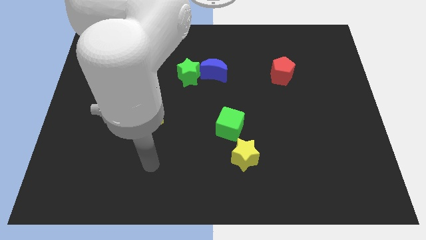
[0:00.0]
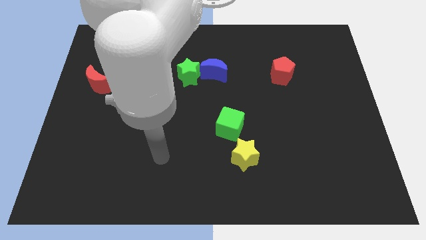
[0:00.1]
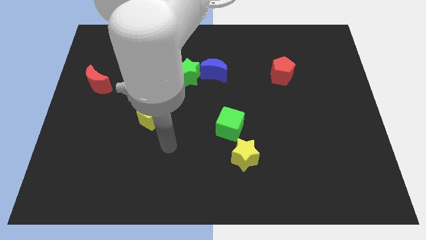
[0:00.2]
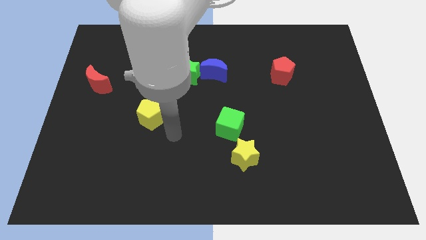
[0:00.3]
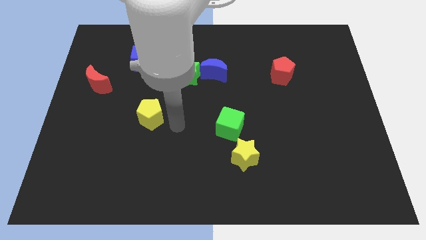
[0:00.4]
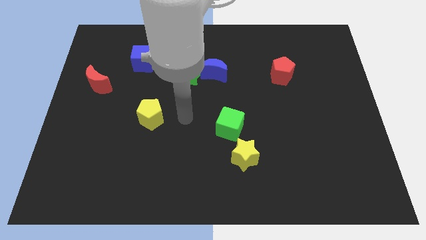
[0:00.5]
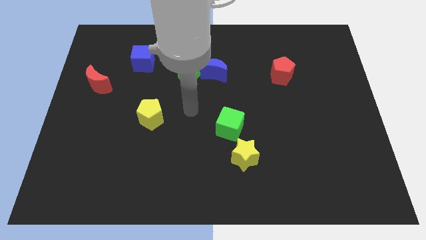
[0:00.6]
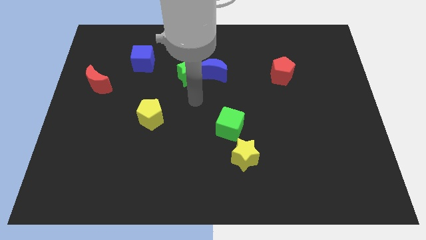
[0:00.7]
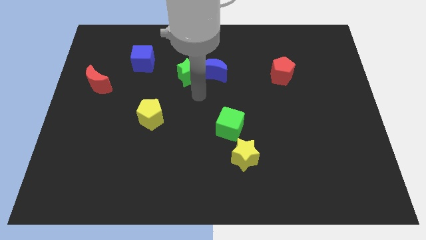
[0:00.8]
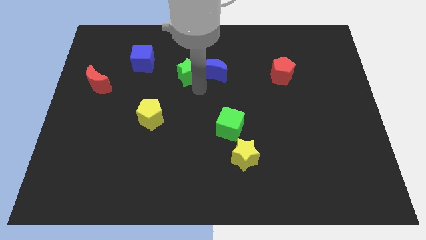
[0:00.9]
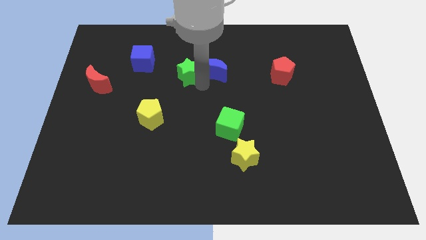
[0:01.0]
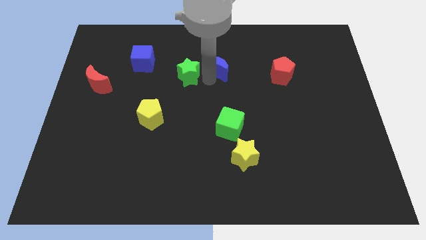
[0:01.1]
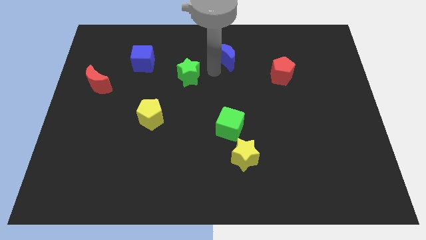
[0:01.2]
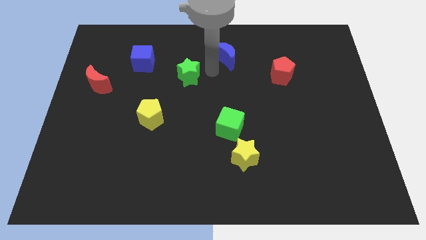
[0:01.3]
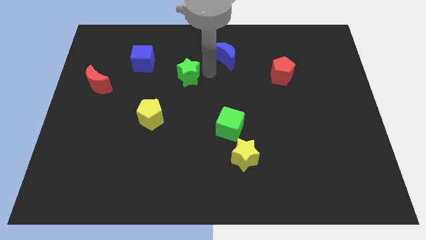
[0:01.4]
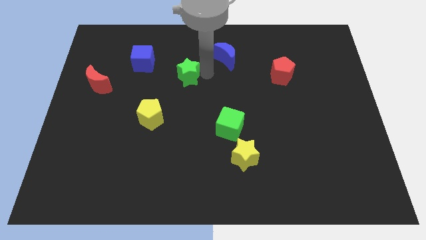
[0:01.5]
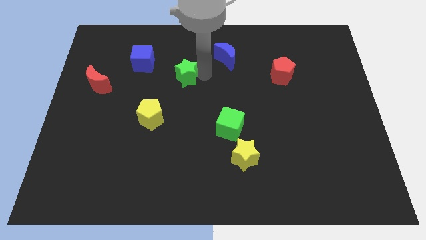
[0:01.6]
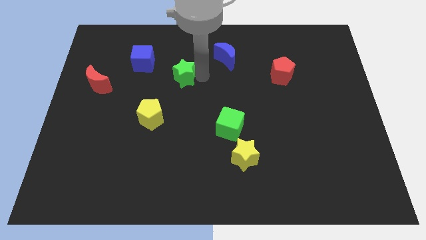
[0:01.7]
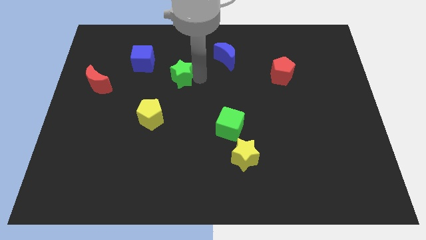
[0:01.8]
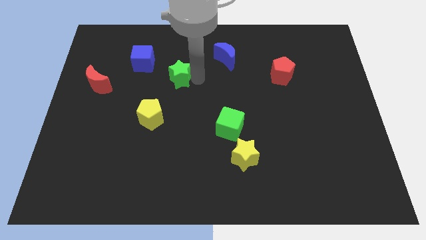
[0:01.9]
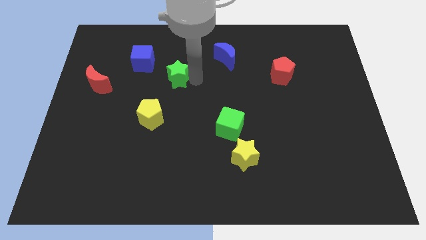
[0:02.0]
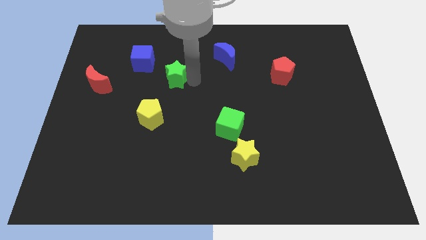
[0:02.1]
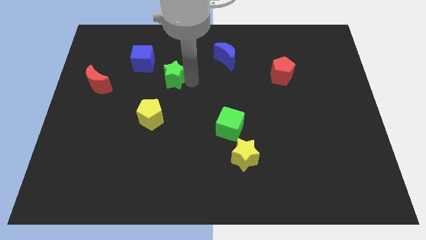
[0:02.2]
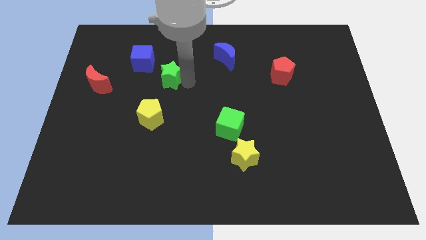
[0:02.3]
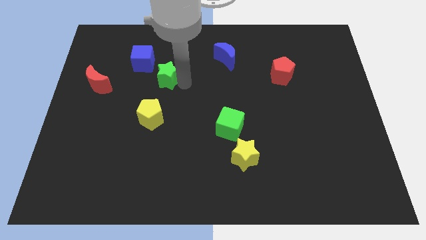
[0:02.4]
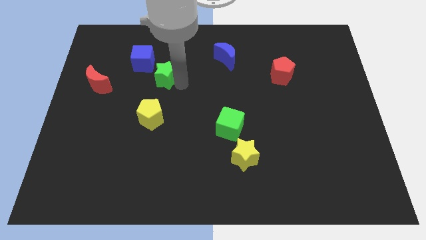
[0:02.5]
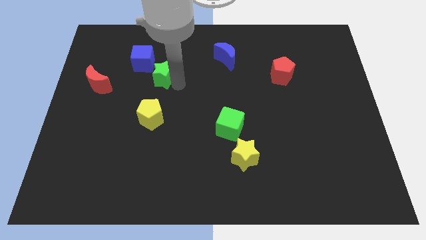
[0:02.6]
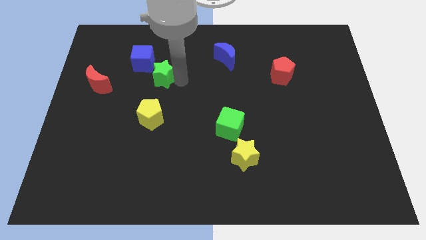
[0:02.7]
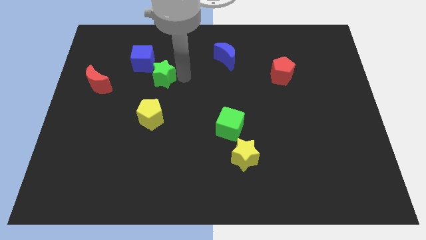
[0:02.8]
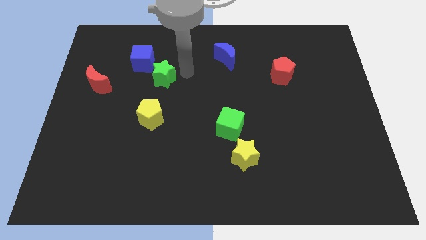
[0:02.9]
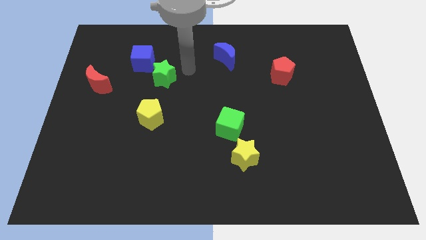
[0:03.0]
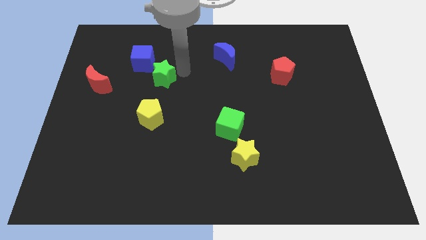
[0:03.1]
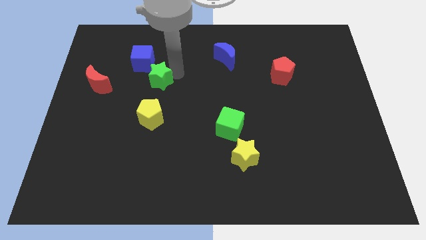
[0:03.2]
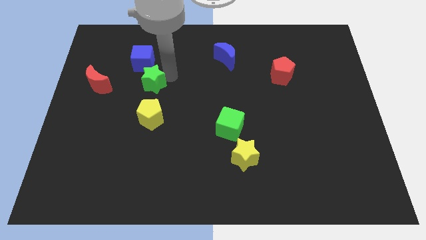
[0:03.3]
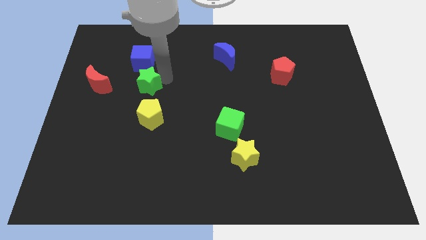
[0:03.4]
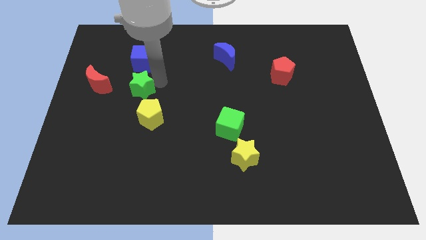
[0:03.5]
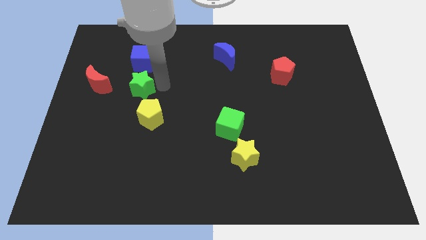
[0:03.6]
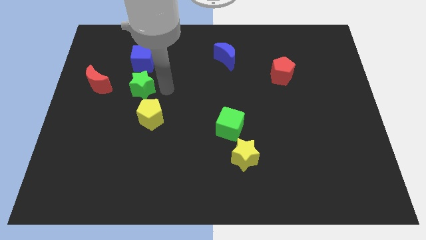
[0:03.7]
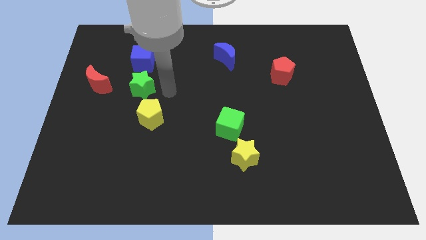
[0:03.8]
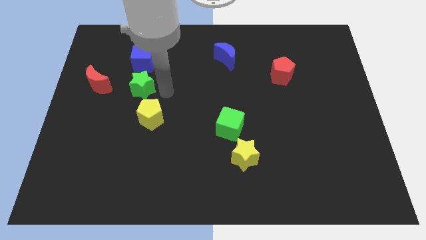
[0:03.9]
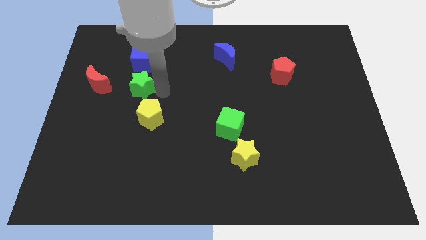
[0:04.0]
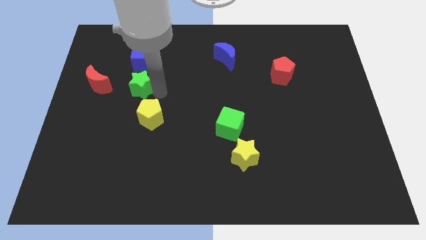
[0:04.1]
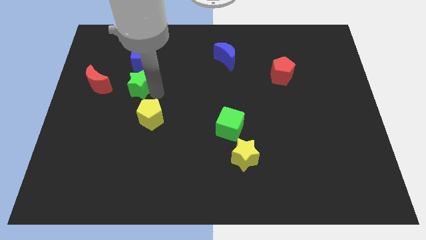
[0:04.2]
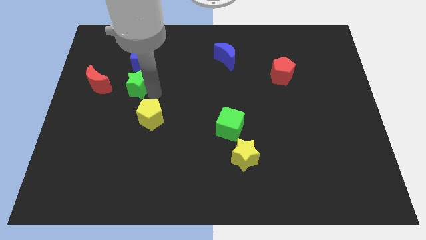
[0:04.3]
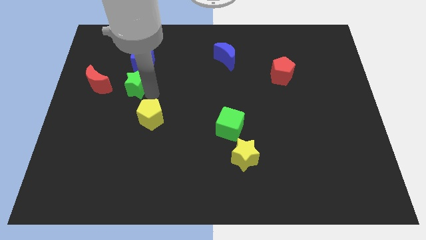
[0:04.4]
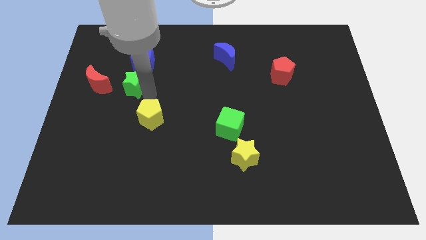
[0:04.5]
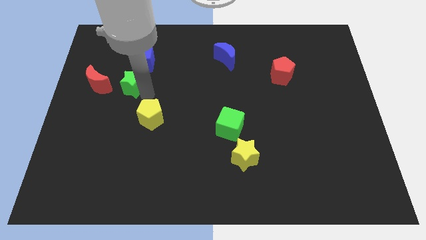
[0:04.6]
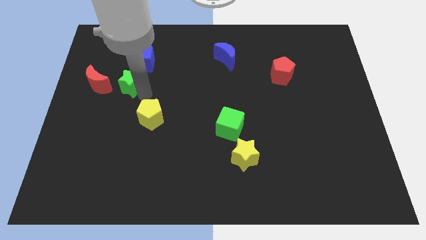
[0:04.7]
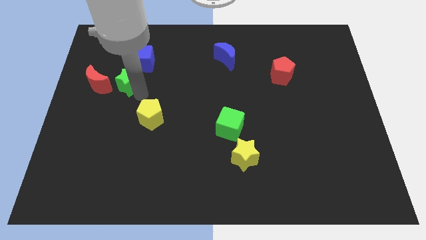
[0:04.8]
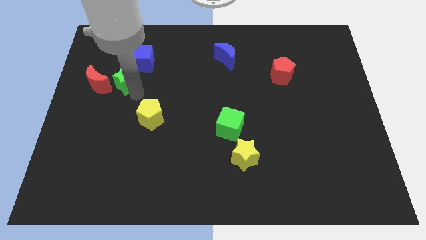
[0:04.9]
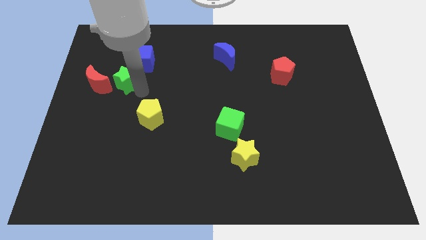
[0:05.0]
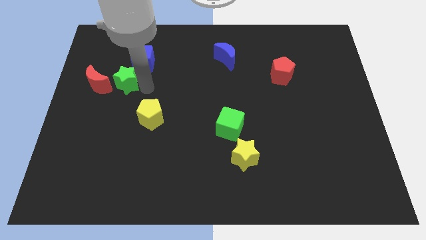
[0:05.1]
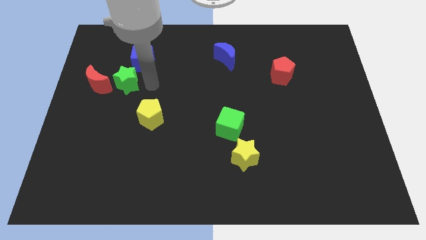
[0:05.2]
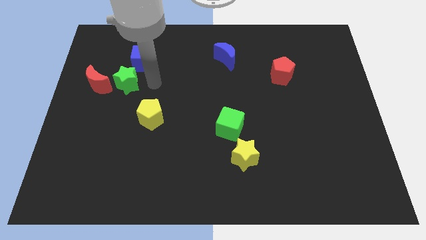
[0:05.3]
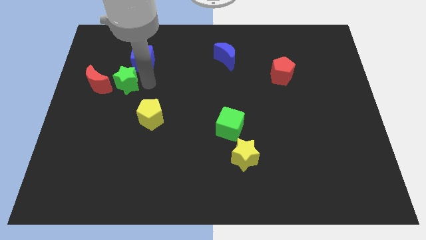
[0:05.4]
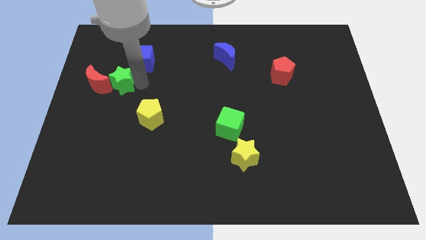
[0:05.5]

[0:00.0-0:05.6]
push the green star next to the red moon

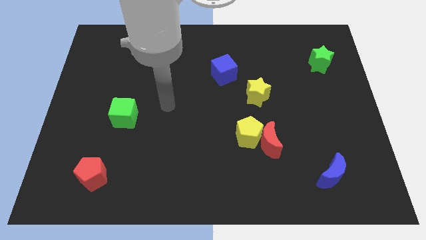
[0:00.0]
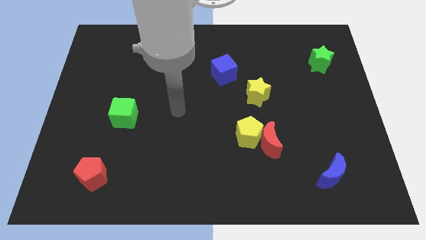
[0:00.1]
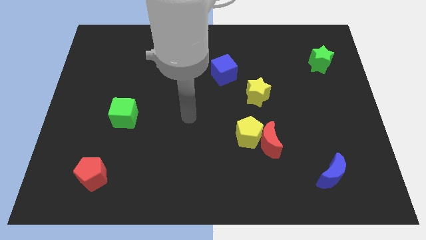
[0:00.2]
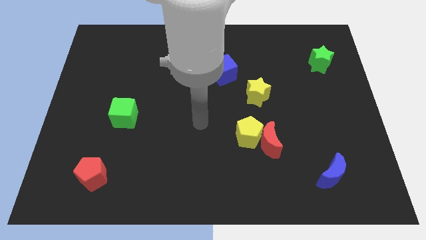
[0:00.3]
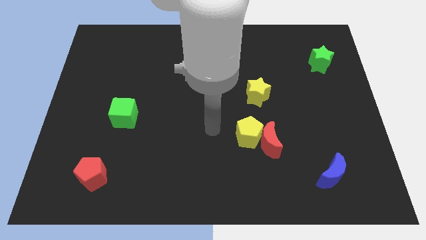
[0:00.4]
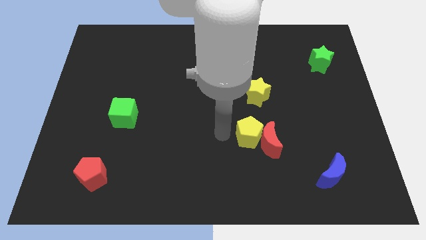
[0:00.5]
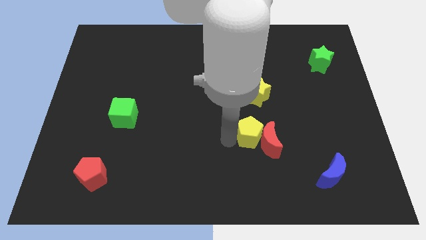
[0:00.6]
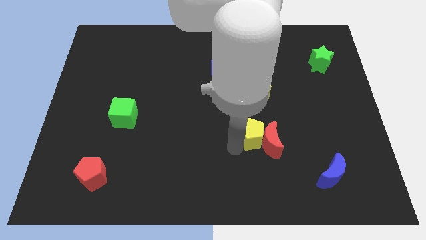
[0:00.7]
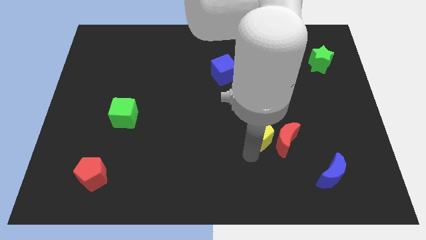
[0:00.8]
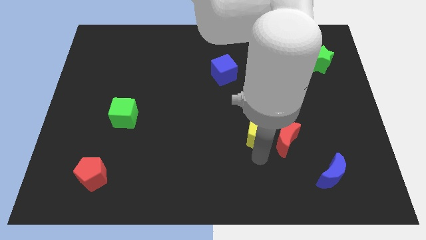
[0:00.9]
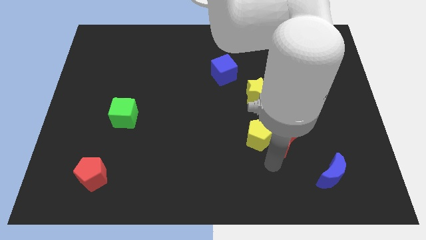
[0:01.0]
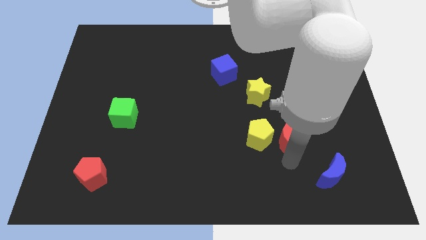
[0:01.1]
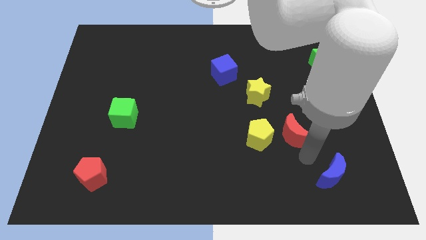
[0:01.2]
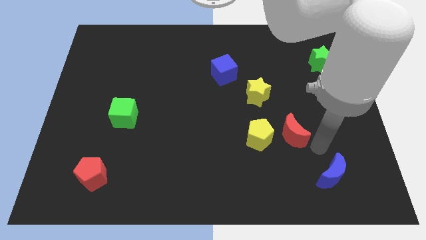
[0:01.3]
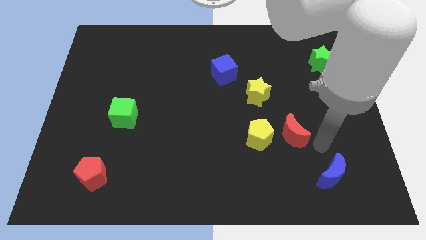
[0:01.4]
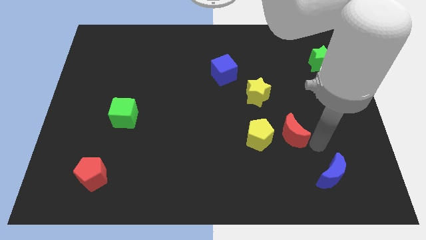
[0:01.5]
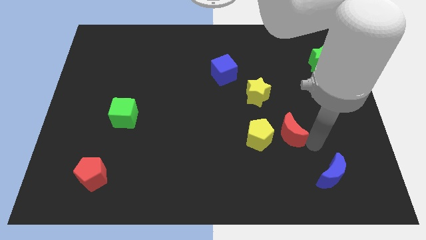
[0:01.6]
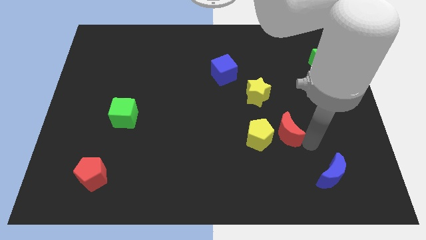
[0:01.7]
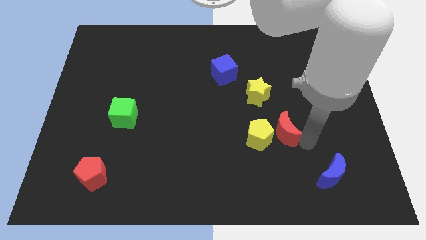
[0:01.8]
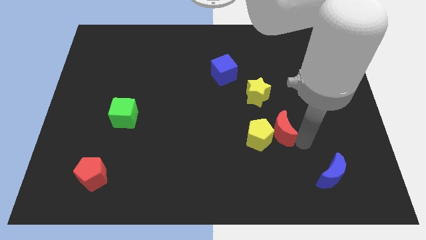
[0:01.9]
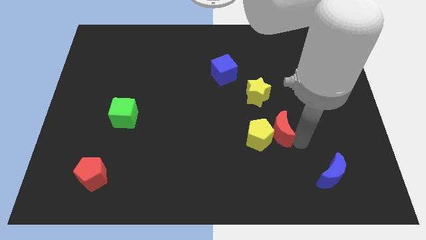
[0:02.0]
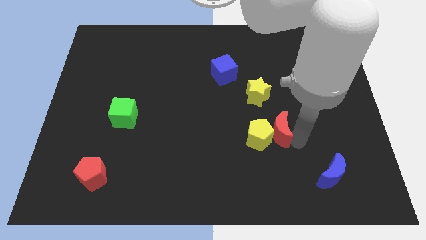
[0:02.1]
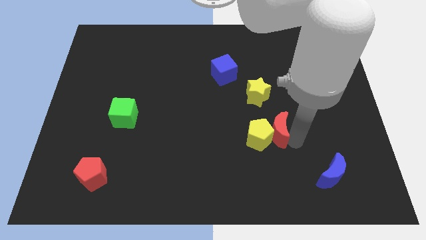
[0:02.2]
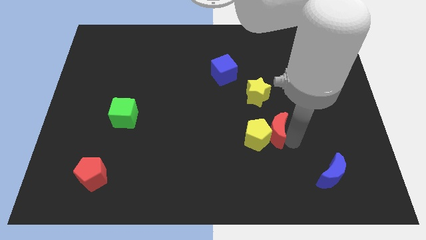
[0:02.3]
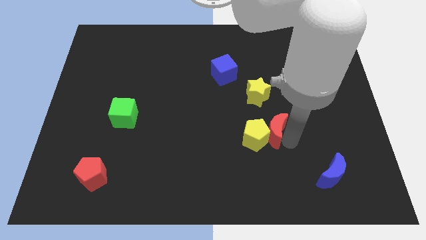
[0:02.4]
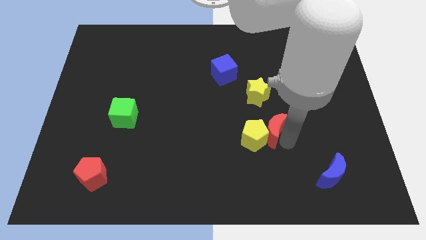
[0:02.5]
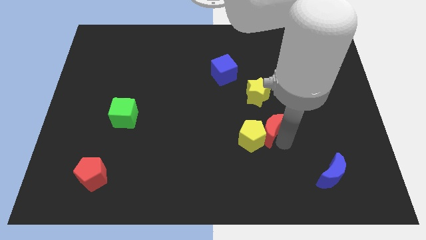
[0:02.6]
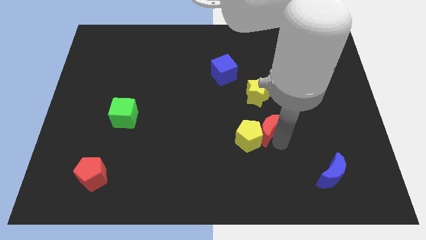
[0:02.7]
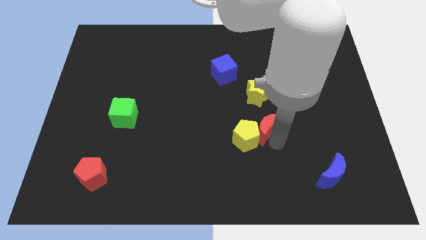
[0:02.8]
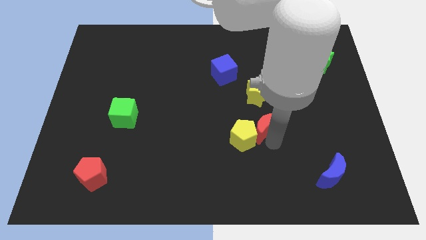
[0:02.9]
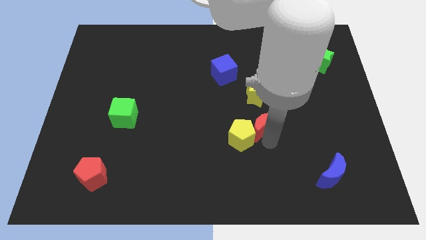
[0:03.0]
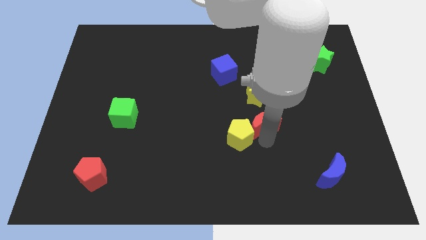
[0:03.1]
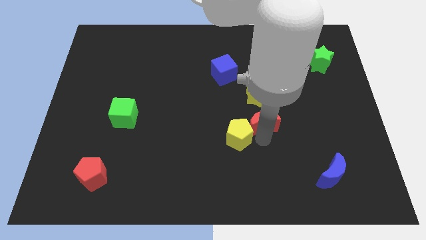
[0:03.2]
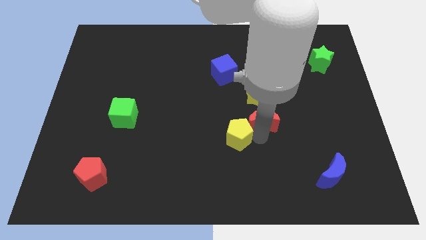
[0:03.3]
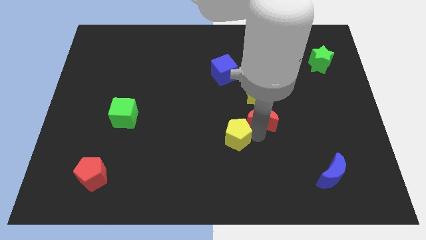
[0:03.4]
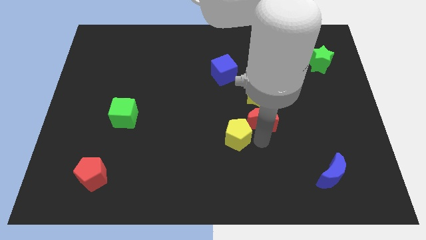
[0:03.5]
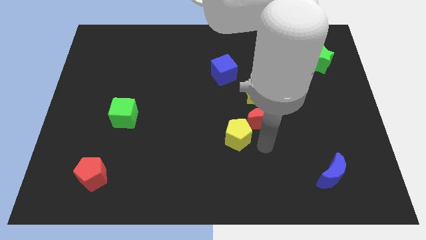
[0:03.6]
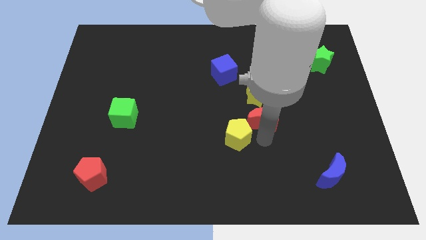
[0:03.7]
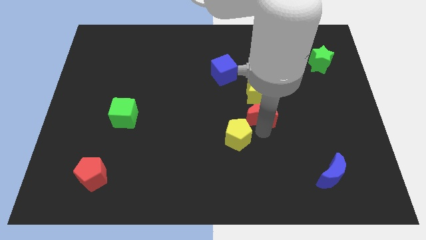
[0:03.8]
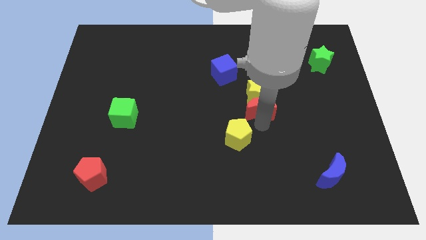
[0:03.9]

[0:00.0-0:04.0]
push the red moon to the yellow star
